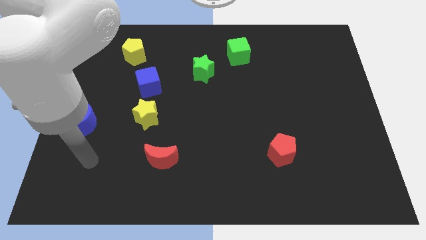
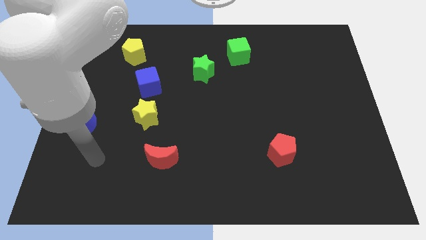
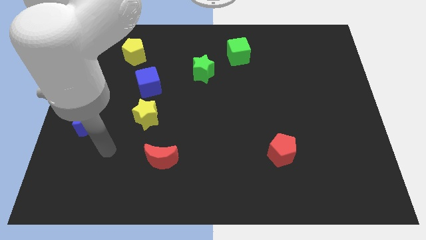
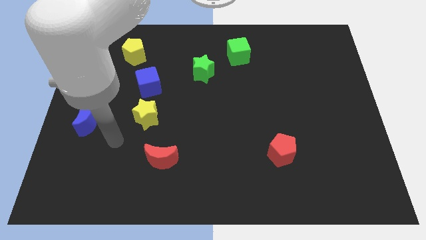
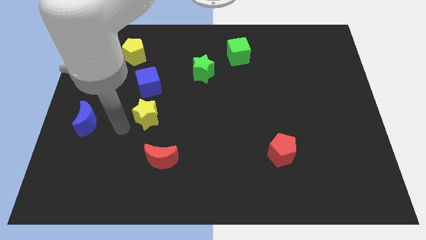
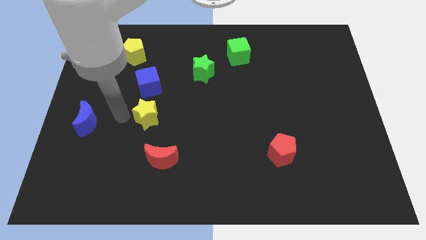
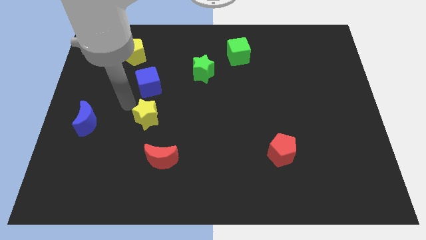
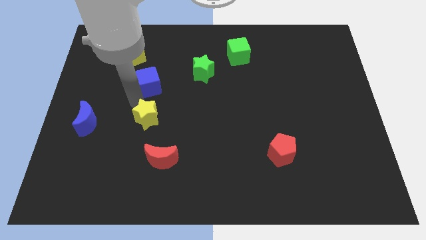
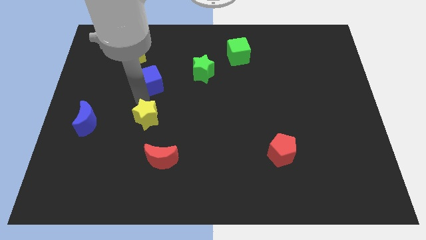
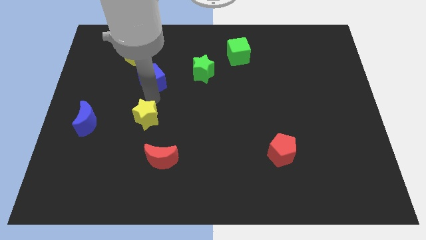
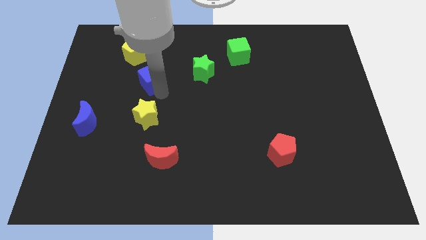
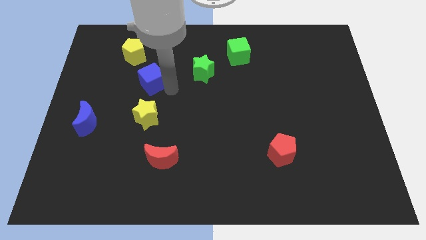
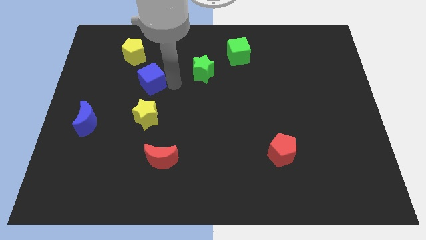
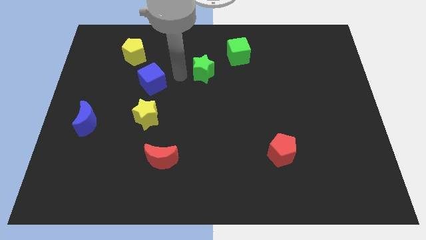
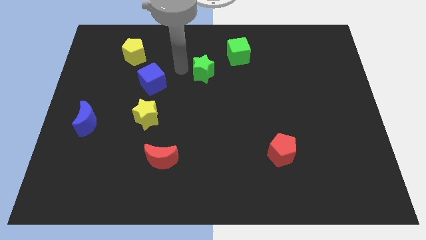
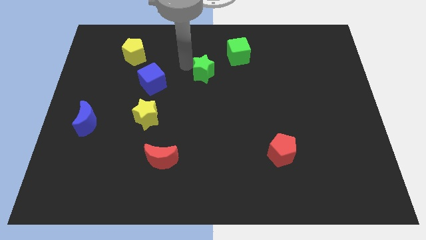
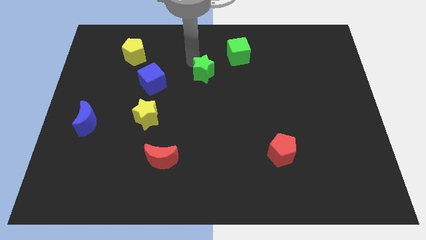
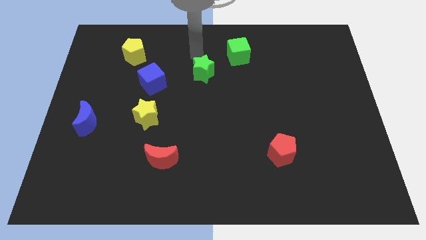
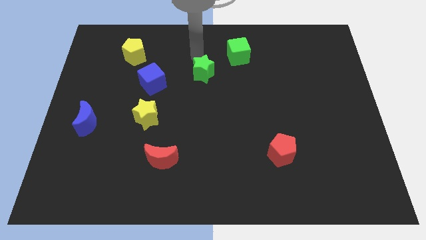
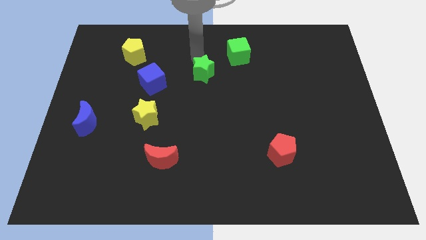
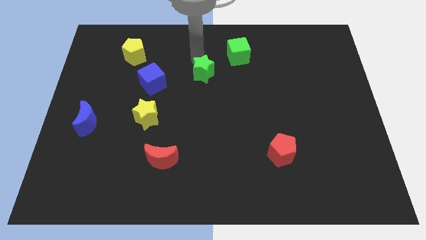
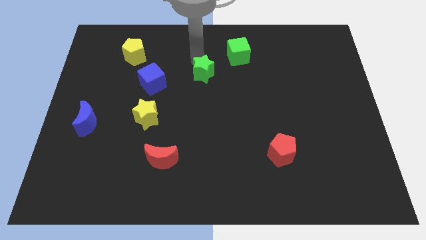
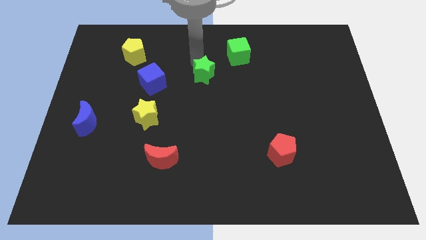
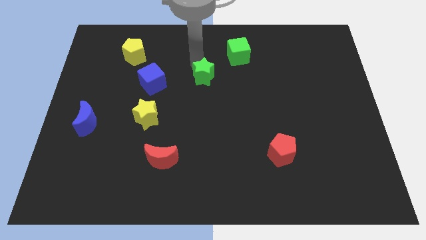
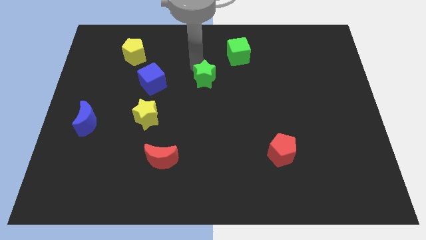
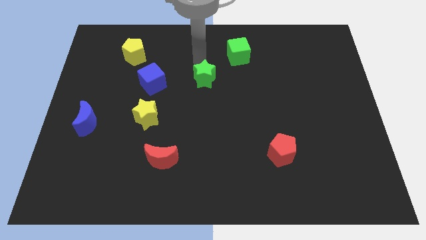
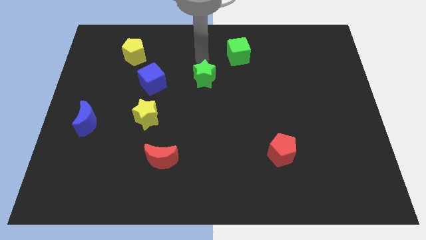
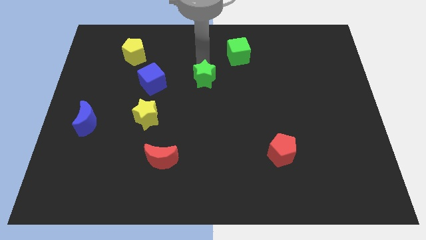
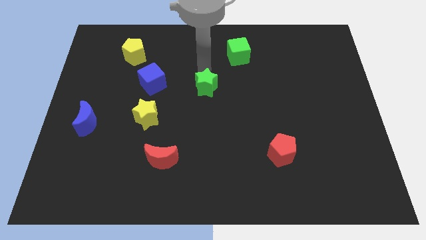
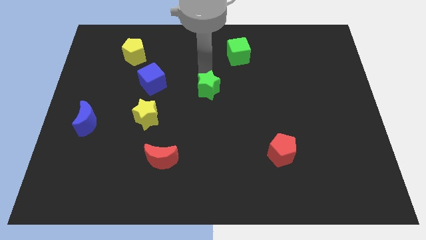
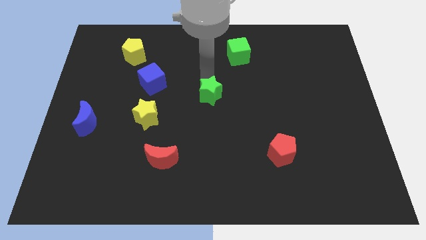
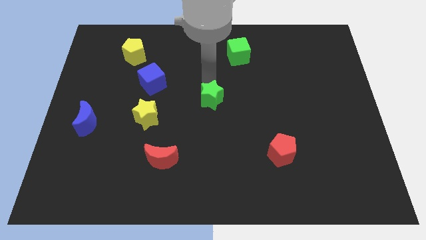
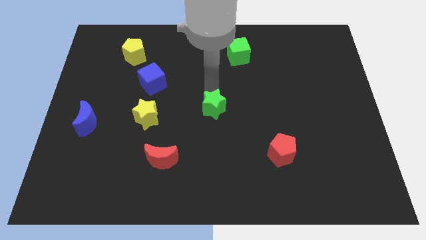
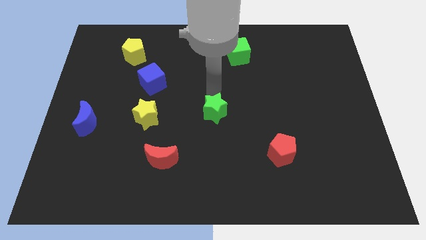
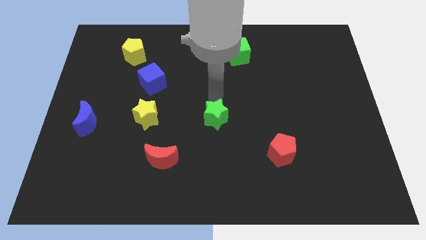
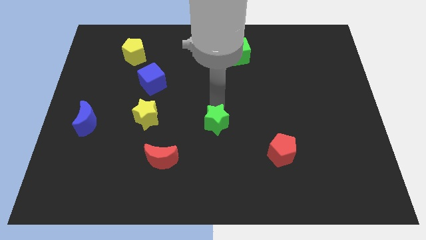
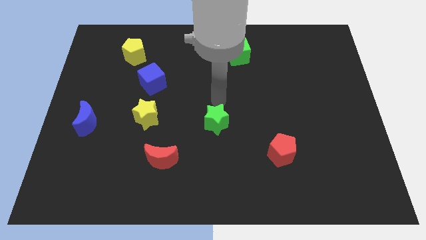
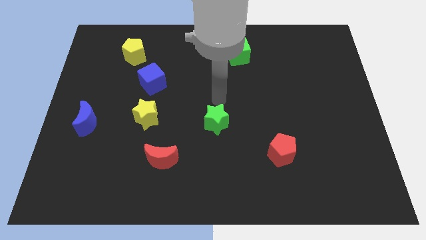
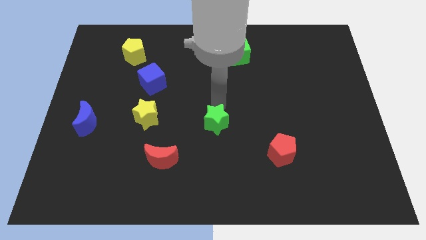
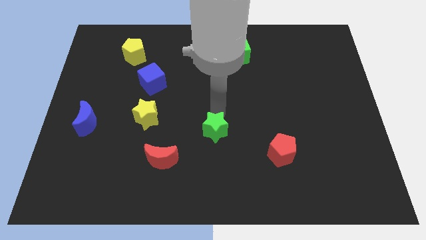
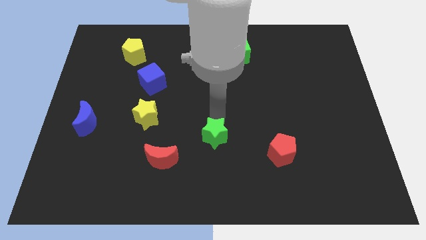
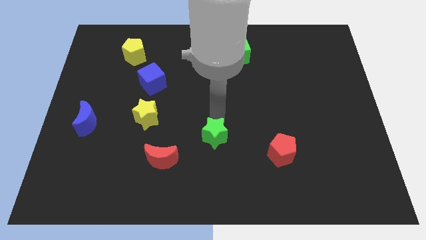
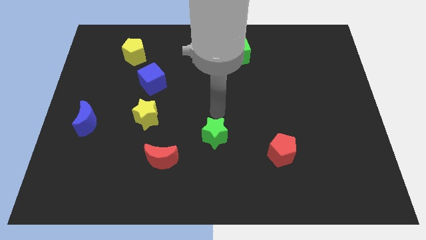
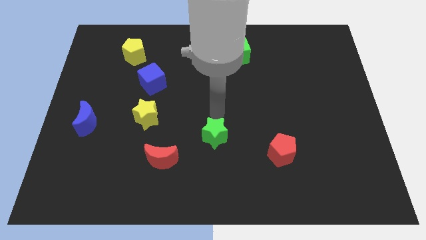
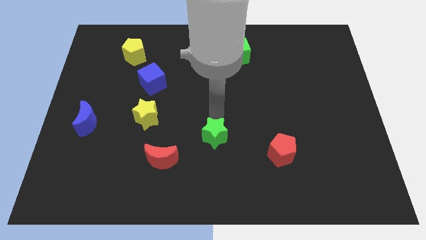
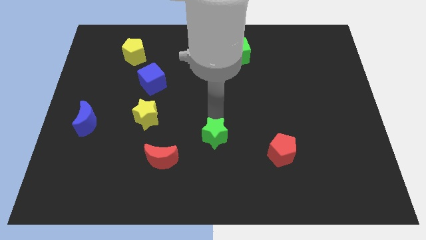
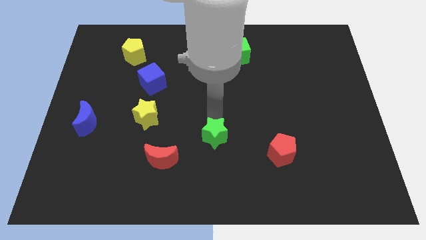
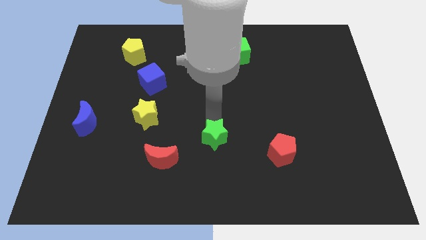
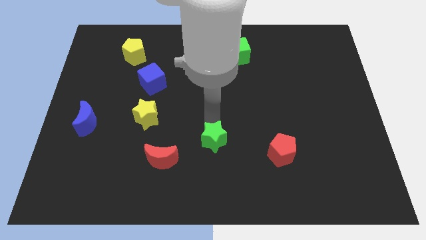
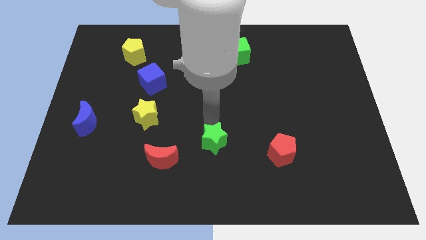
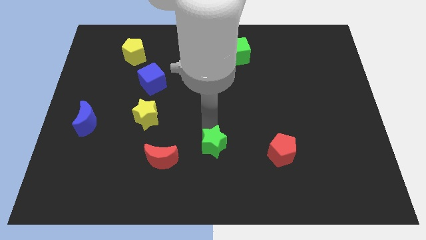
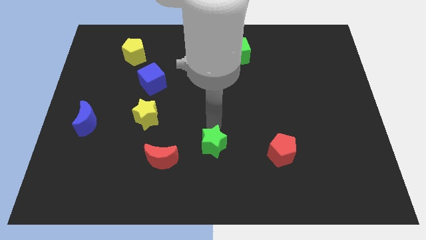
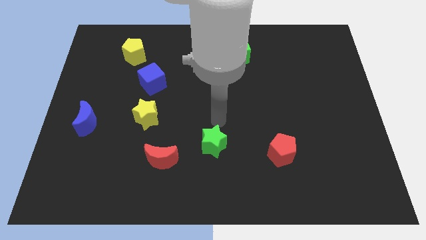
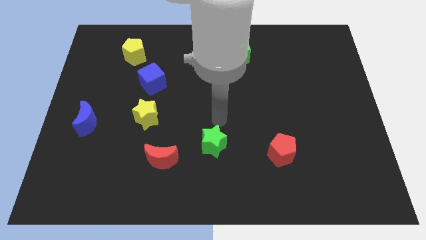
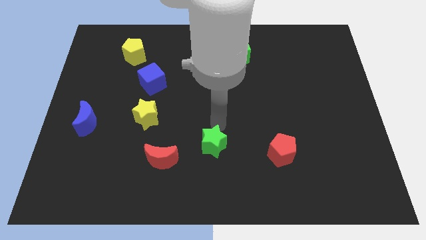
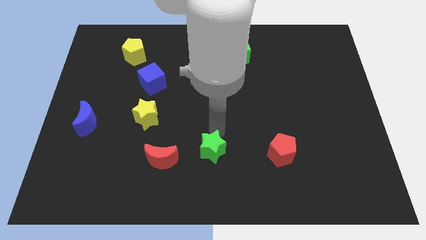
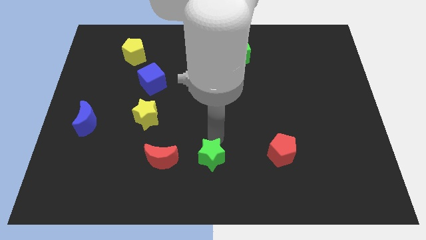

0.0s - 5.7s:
move the green star to the bottom side
